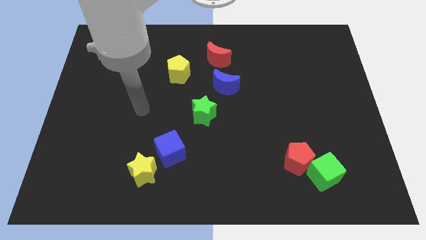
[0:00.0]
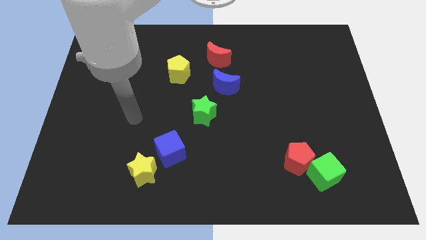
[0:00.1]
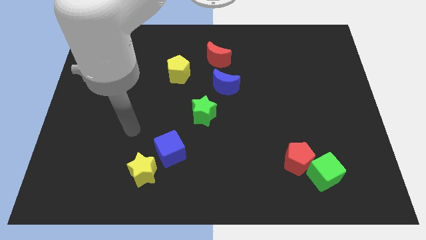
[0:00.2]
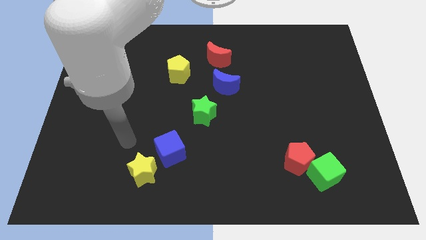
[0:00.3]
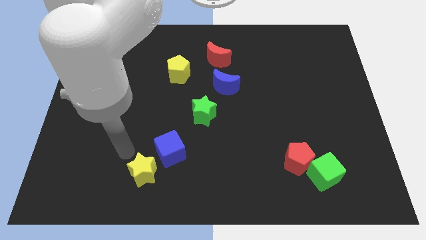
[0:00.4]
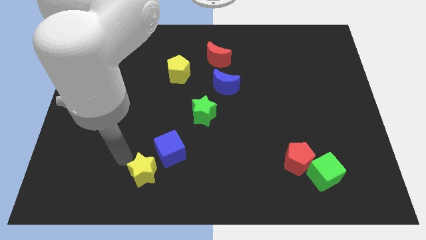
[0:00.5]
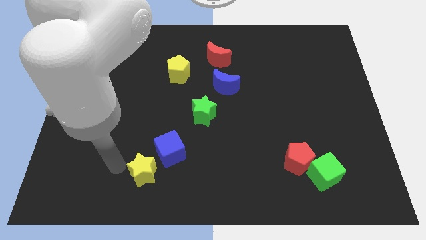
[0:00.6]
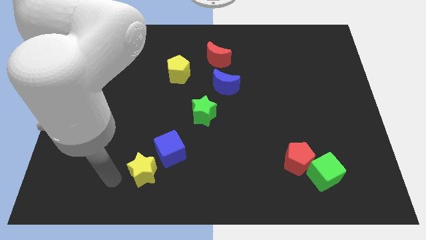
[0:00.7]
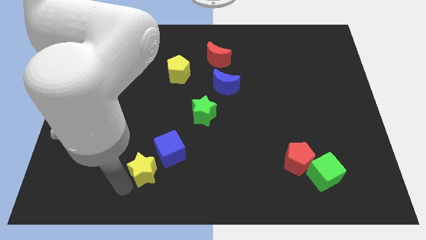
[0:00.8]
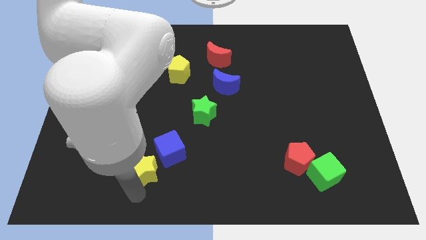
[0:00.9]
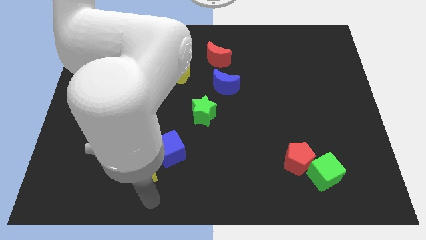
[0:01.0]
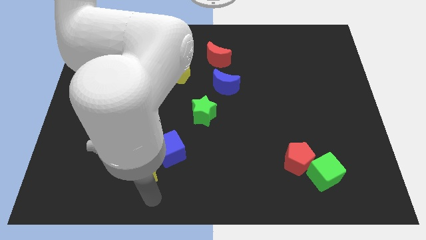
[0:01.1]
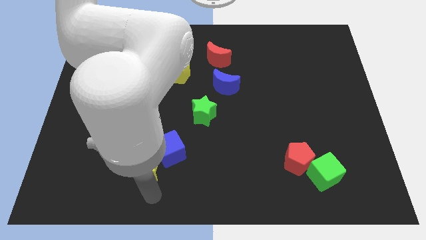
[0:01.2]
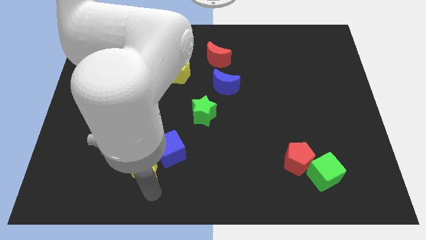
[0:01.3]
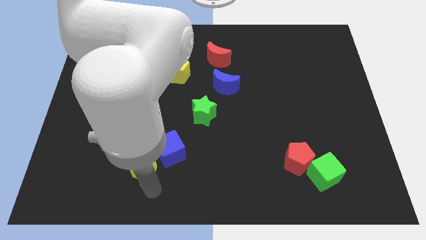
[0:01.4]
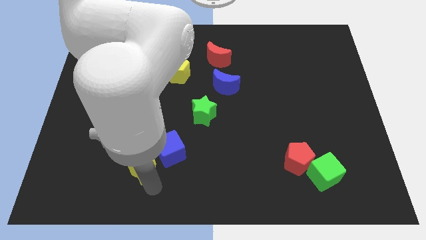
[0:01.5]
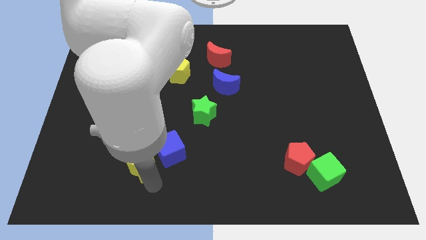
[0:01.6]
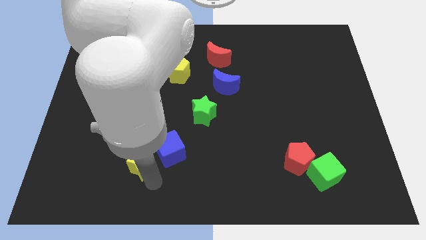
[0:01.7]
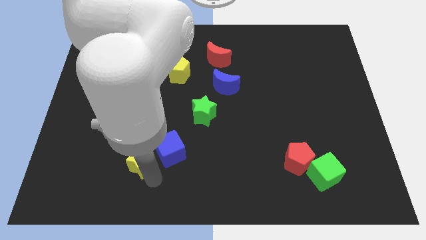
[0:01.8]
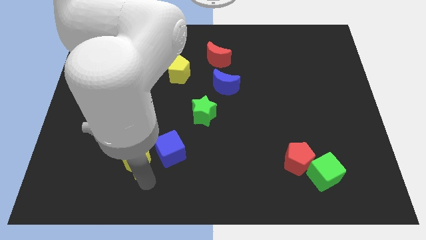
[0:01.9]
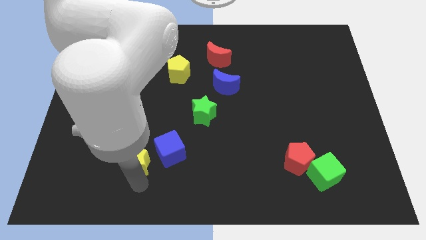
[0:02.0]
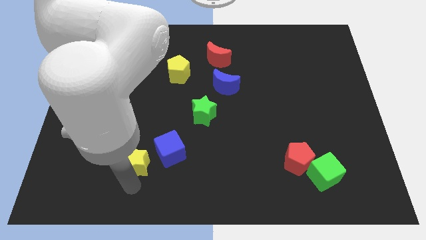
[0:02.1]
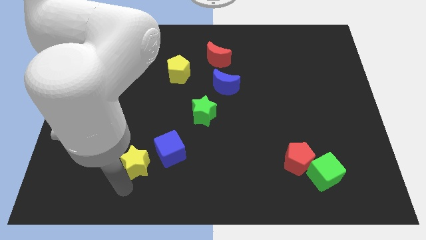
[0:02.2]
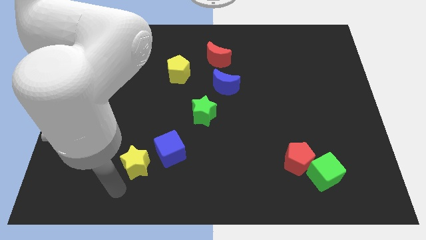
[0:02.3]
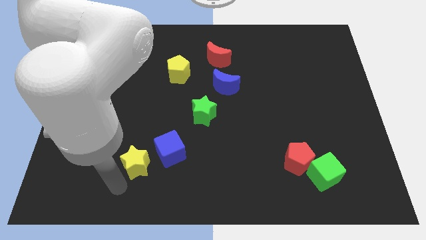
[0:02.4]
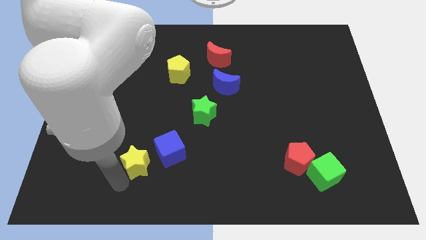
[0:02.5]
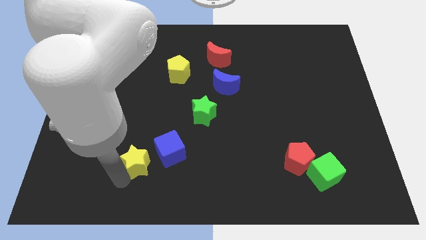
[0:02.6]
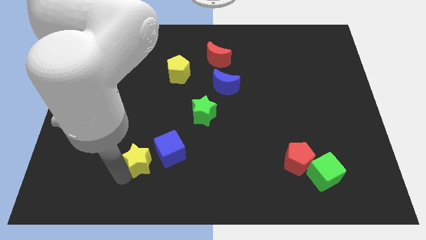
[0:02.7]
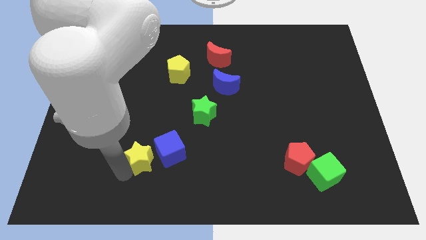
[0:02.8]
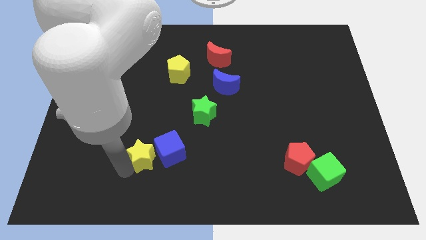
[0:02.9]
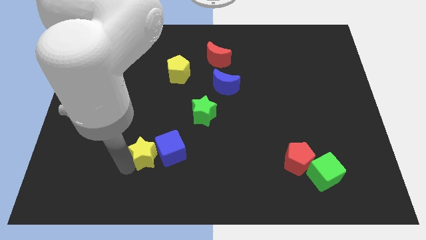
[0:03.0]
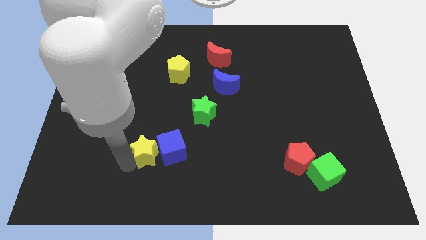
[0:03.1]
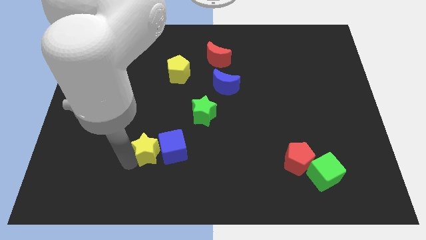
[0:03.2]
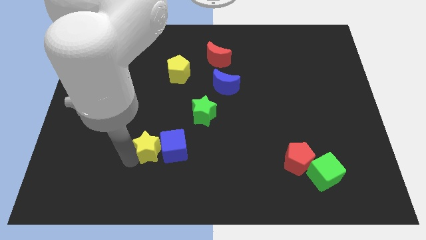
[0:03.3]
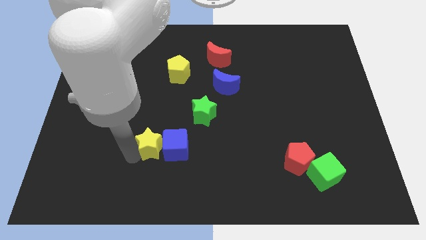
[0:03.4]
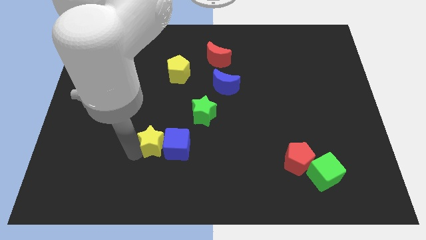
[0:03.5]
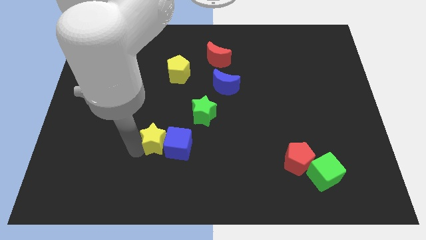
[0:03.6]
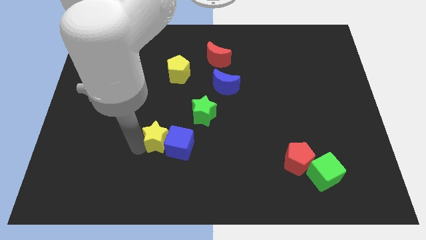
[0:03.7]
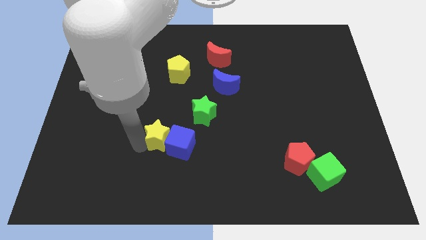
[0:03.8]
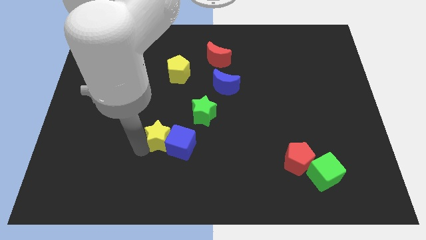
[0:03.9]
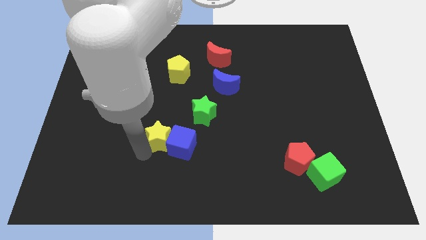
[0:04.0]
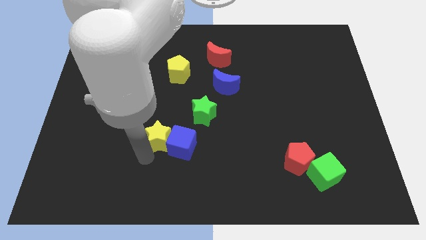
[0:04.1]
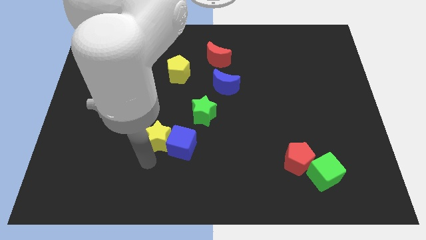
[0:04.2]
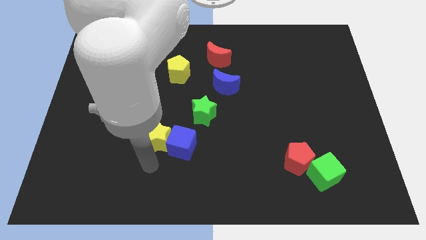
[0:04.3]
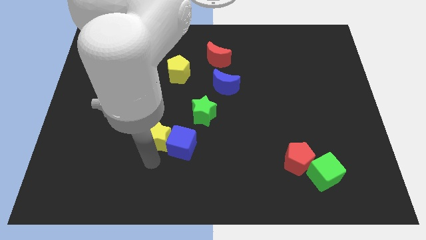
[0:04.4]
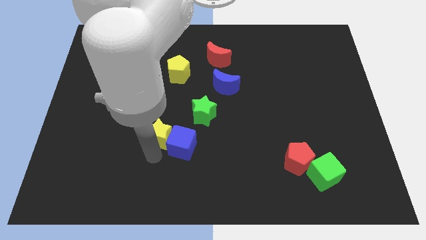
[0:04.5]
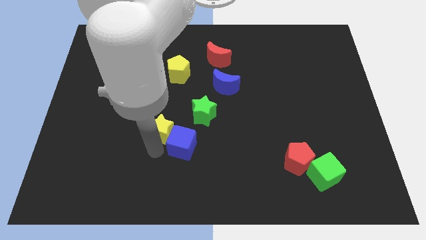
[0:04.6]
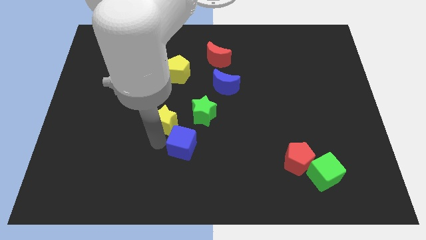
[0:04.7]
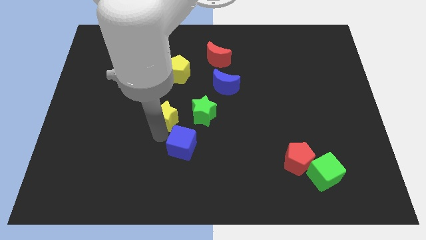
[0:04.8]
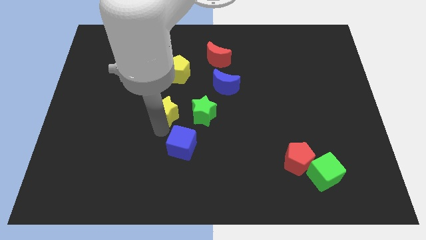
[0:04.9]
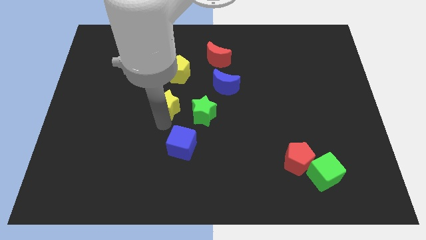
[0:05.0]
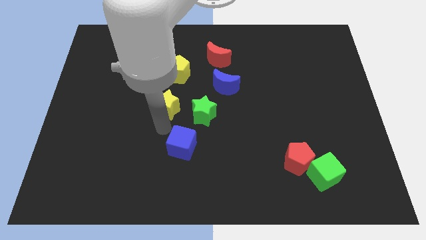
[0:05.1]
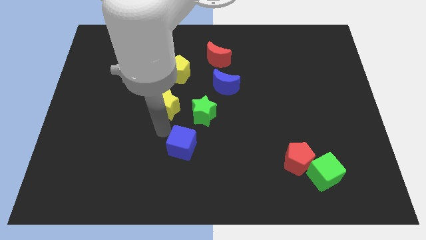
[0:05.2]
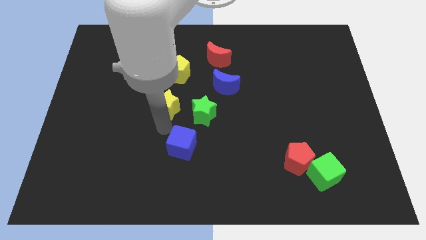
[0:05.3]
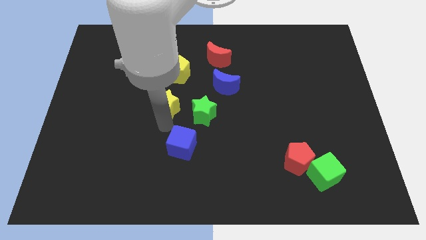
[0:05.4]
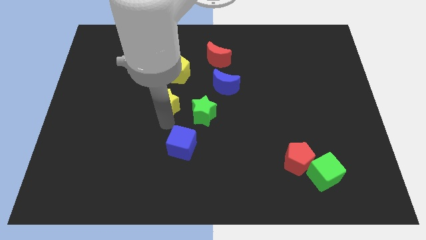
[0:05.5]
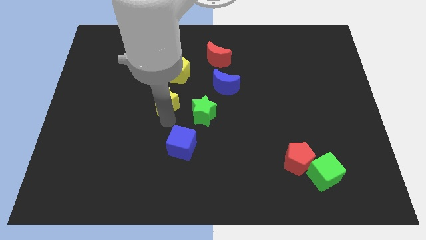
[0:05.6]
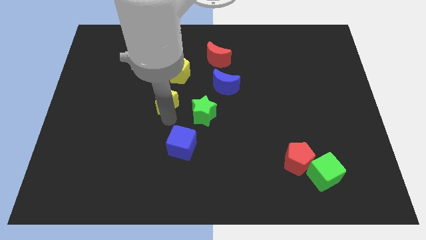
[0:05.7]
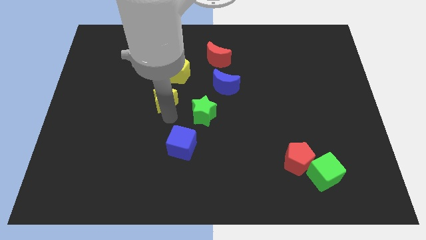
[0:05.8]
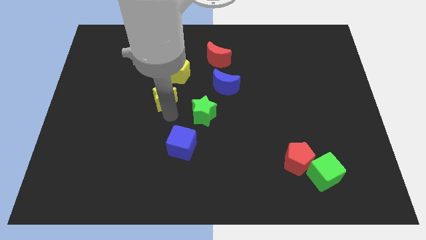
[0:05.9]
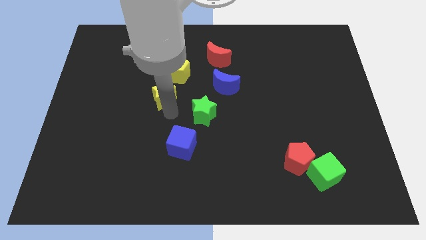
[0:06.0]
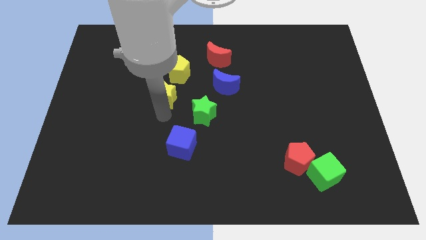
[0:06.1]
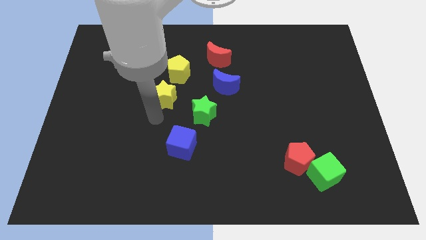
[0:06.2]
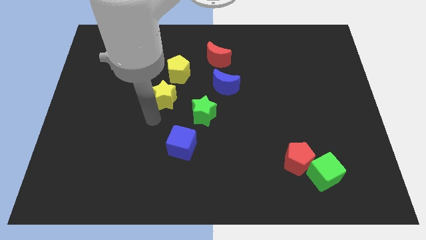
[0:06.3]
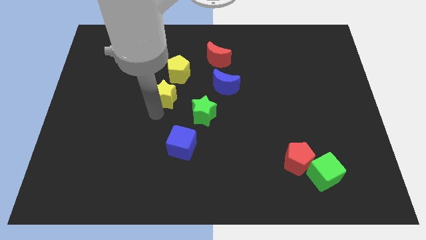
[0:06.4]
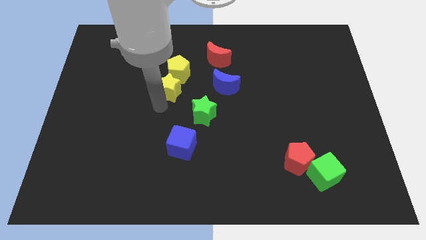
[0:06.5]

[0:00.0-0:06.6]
put the yellow star to the yellow pentagon

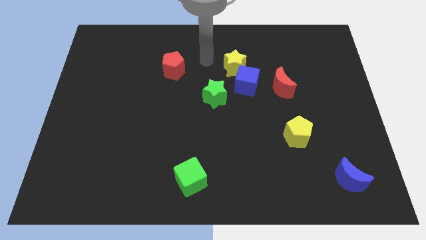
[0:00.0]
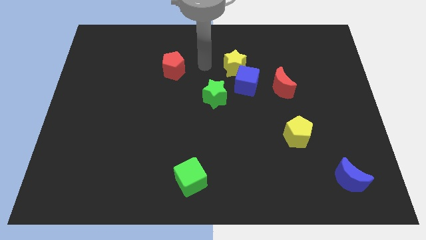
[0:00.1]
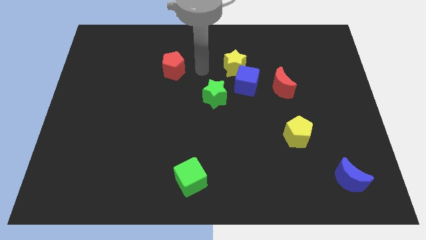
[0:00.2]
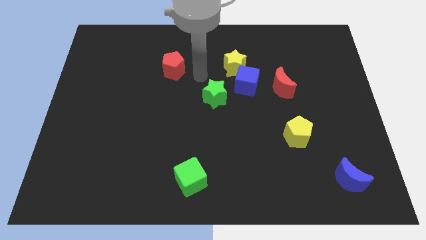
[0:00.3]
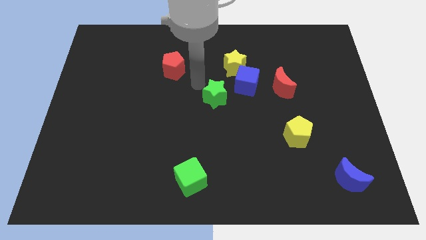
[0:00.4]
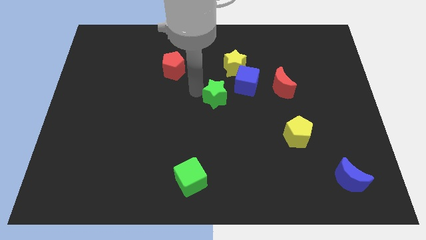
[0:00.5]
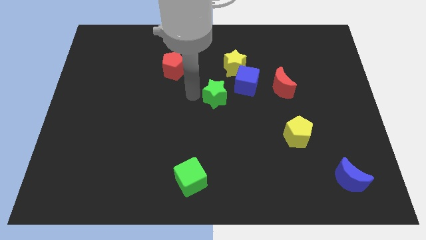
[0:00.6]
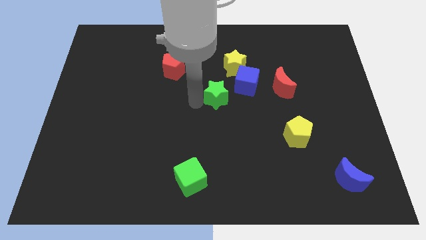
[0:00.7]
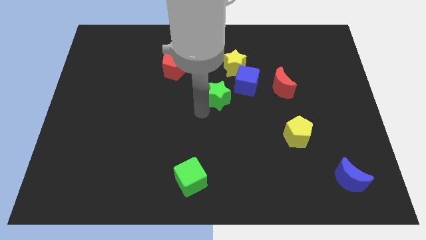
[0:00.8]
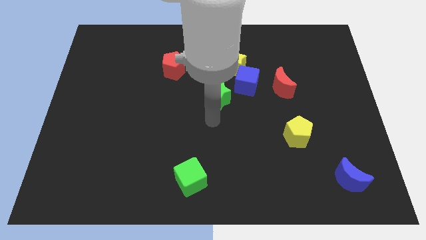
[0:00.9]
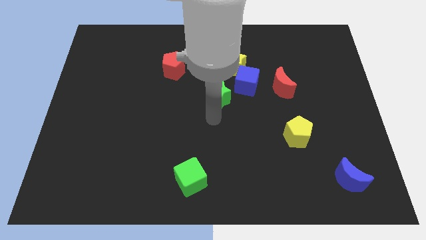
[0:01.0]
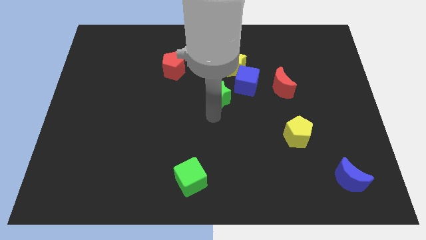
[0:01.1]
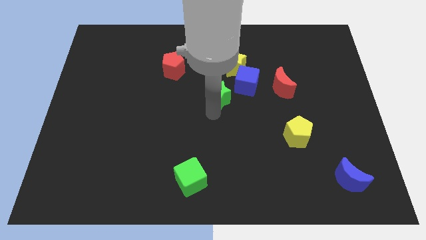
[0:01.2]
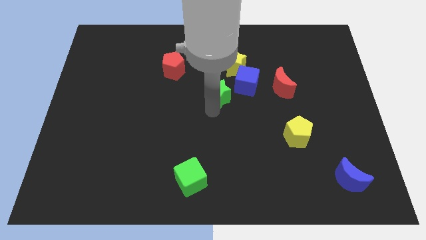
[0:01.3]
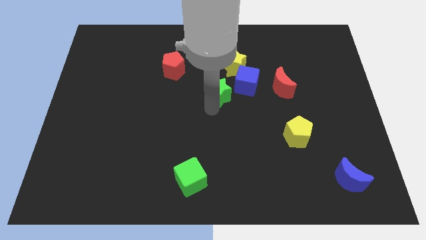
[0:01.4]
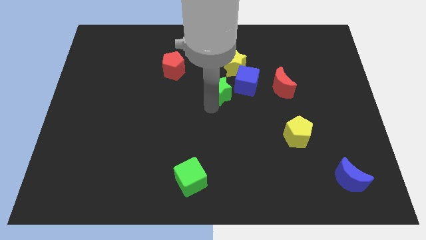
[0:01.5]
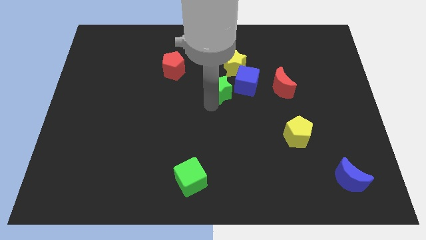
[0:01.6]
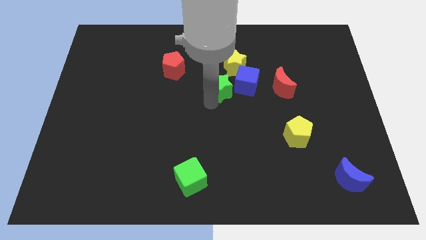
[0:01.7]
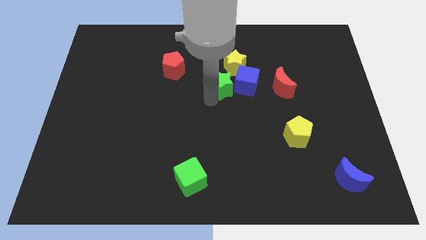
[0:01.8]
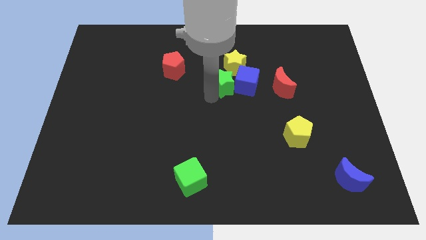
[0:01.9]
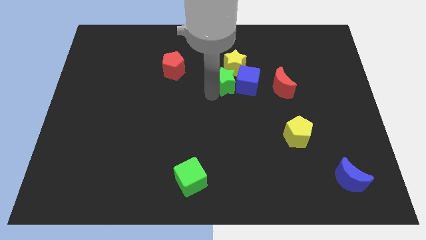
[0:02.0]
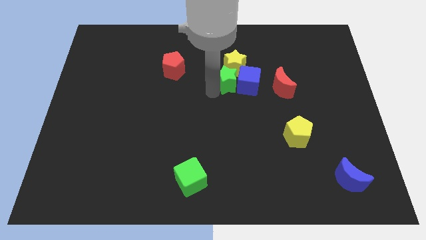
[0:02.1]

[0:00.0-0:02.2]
push the green star towards the yellow star
